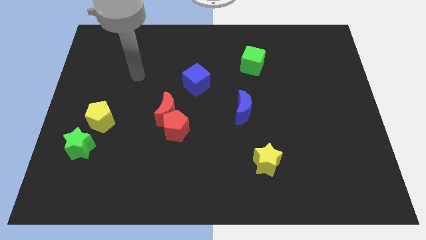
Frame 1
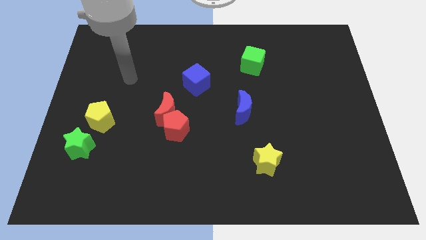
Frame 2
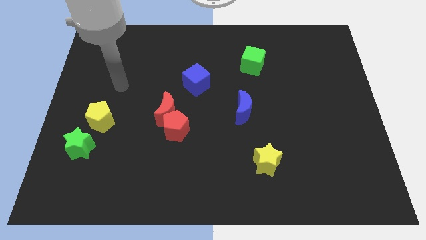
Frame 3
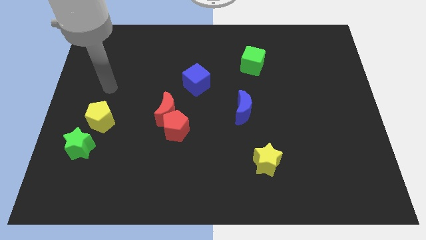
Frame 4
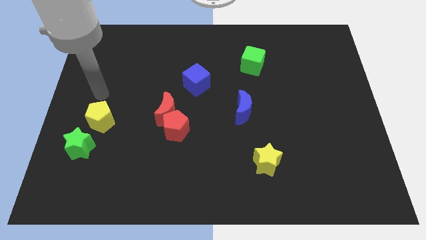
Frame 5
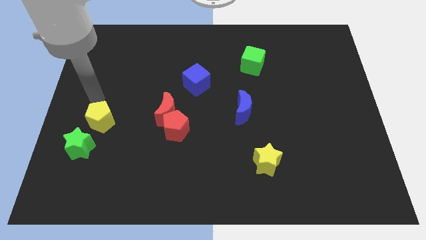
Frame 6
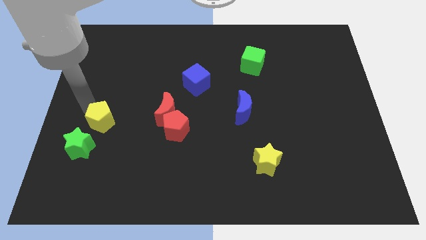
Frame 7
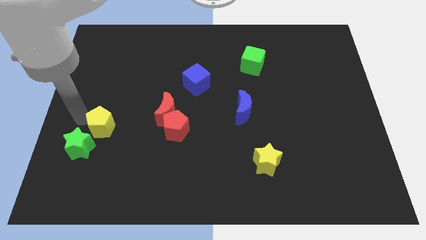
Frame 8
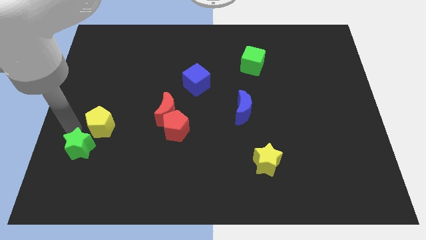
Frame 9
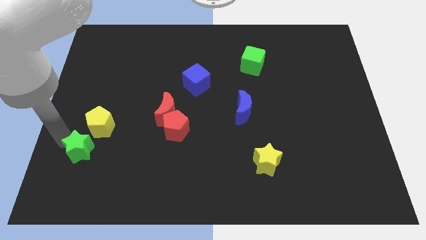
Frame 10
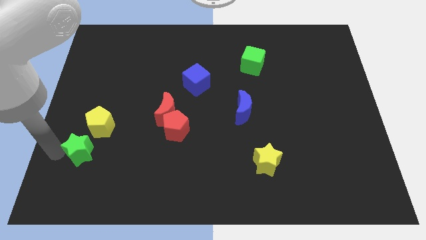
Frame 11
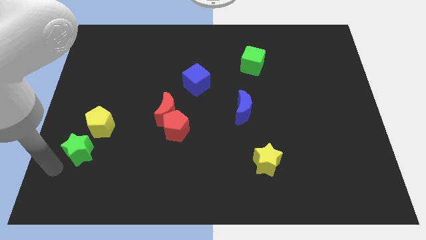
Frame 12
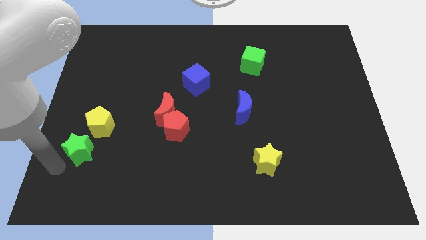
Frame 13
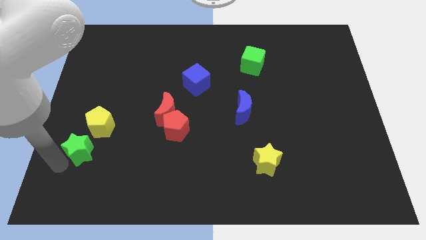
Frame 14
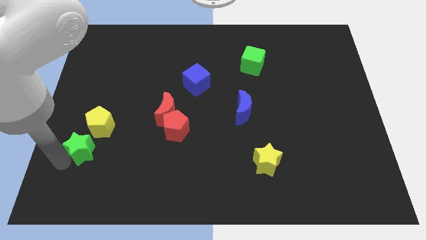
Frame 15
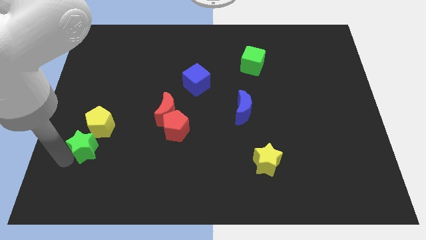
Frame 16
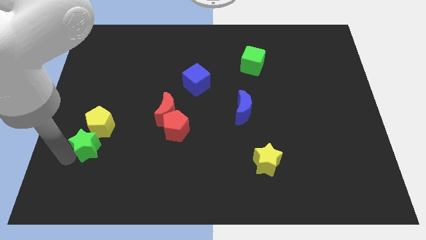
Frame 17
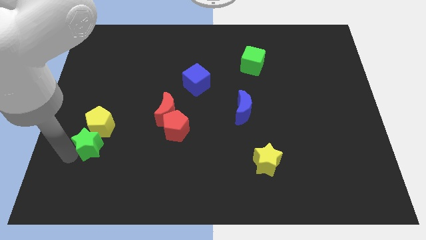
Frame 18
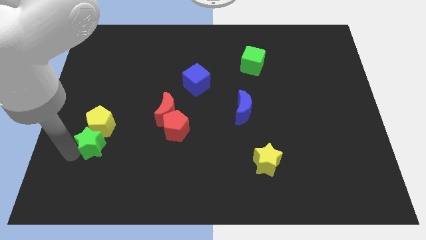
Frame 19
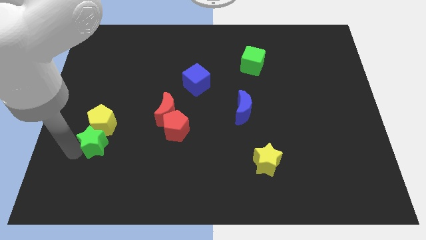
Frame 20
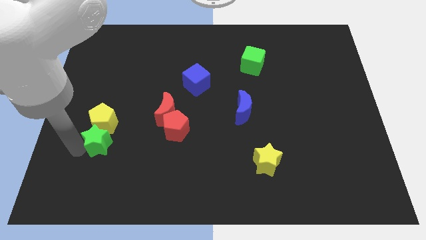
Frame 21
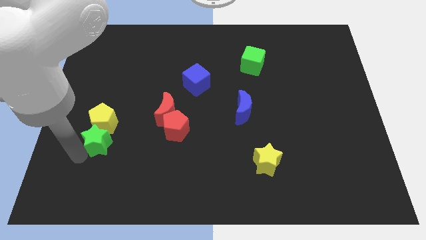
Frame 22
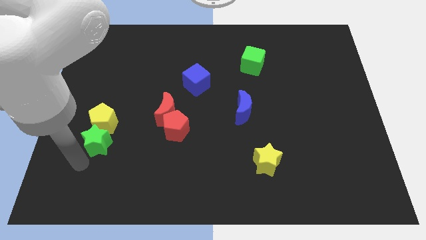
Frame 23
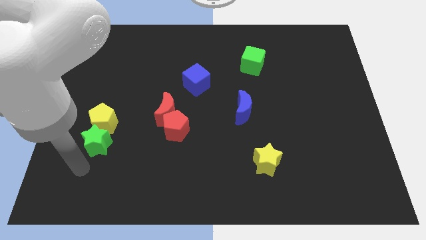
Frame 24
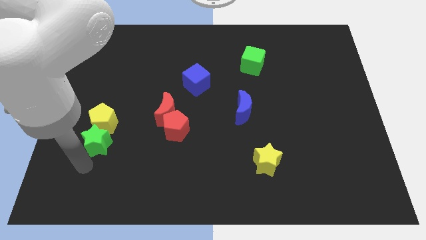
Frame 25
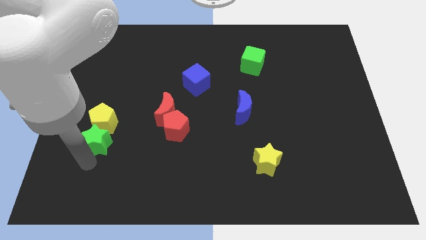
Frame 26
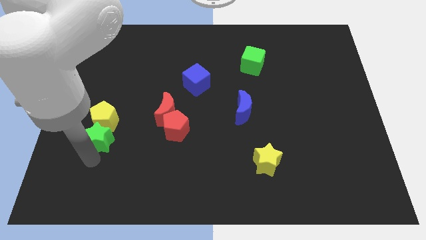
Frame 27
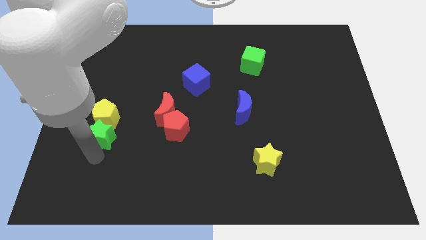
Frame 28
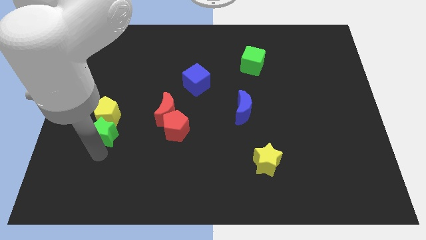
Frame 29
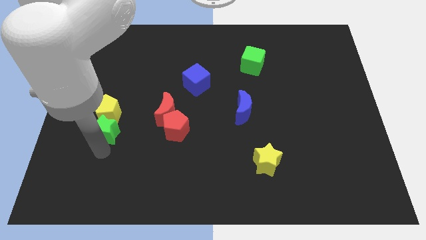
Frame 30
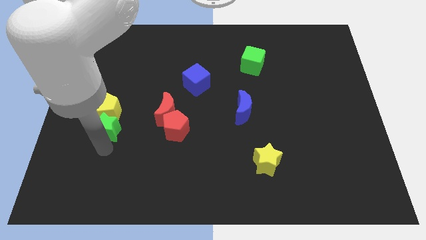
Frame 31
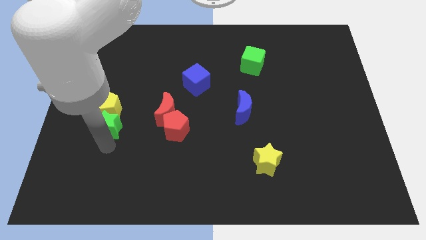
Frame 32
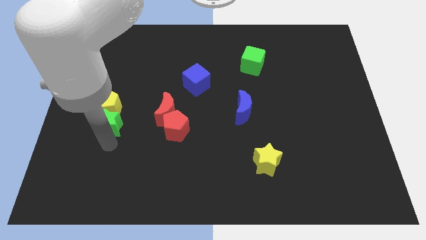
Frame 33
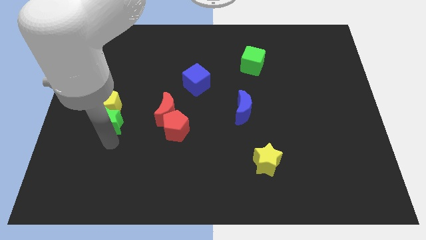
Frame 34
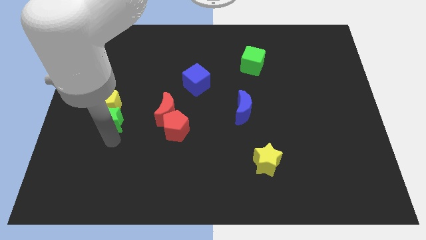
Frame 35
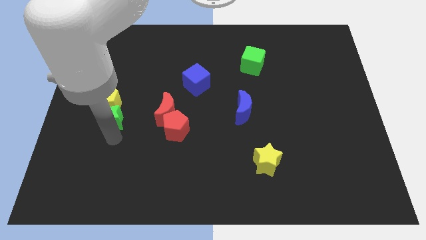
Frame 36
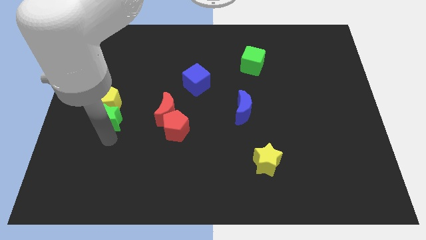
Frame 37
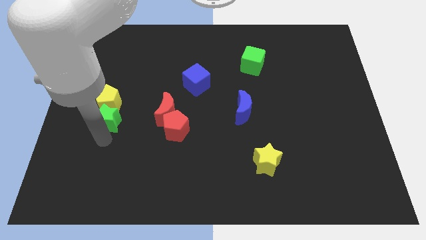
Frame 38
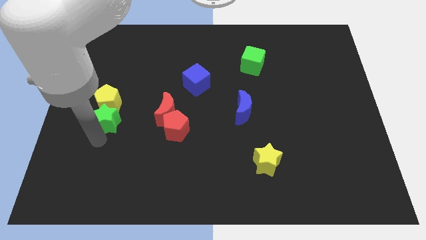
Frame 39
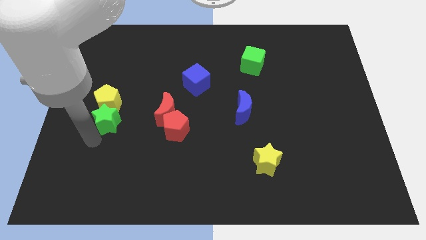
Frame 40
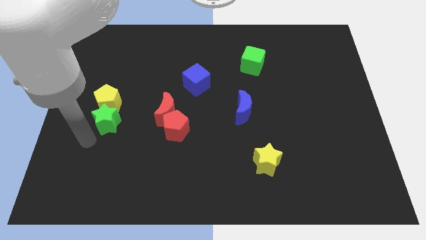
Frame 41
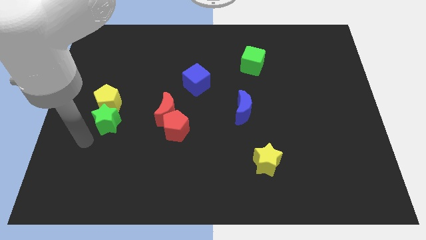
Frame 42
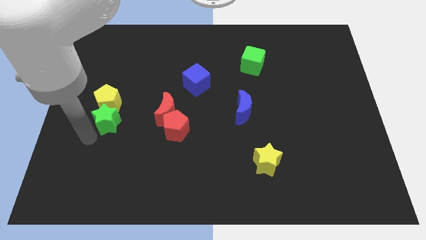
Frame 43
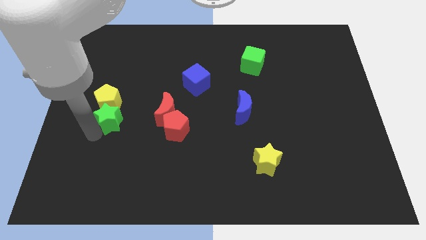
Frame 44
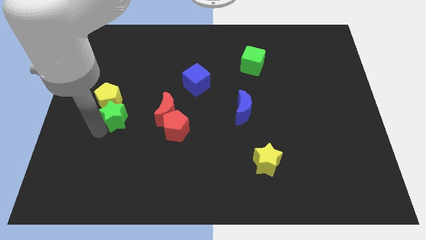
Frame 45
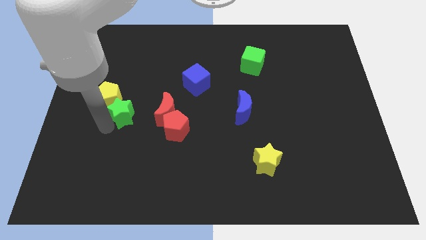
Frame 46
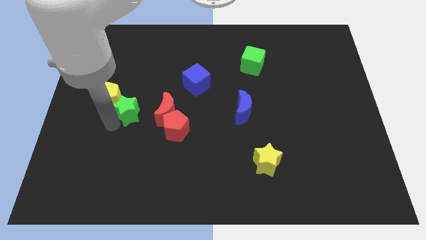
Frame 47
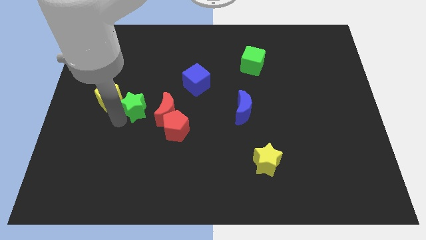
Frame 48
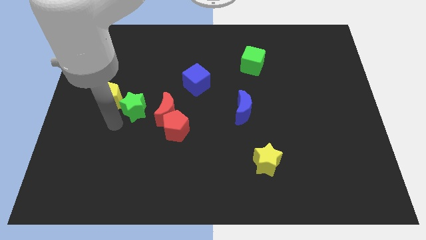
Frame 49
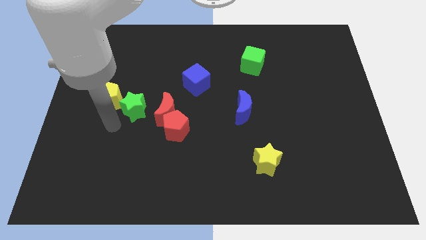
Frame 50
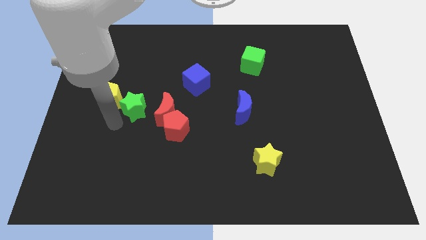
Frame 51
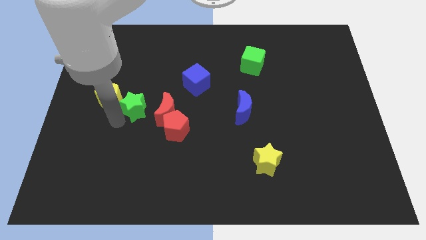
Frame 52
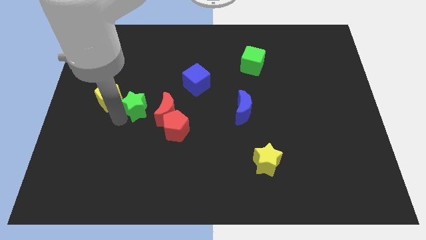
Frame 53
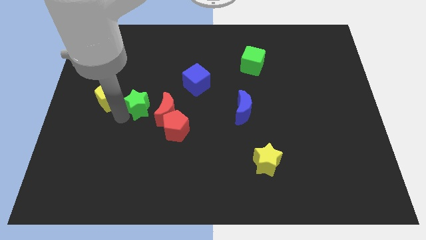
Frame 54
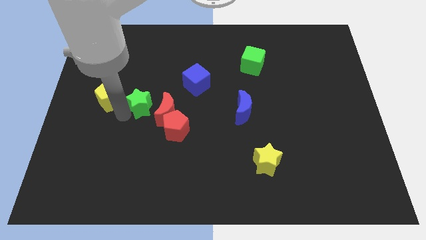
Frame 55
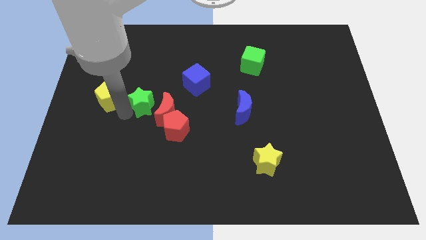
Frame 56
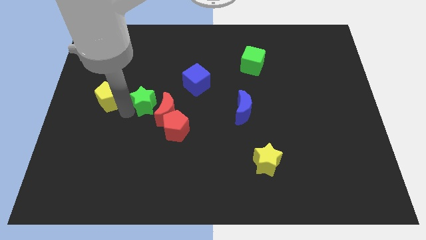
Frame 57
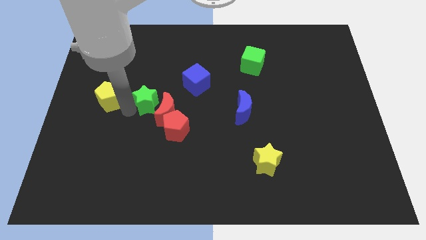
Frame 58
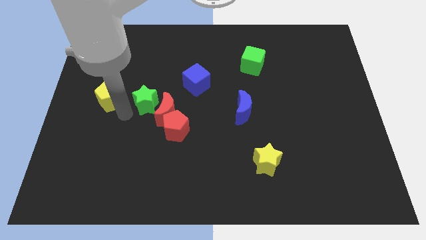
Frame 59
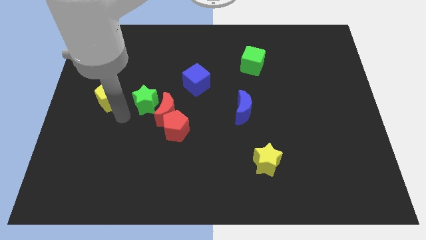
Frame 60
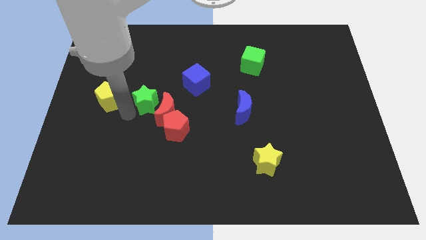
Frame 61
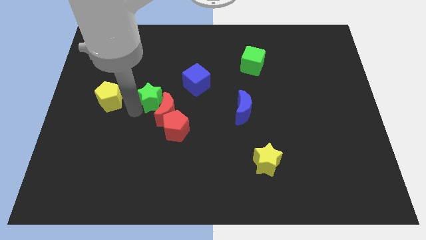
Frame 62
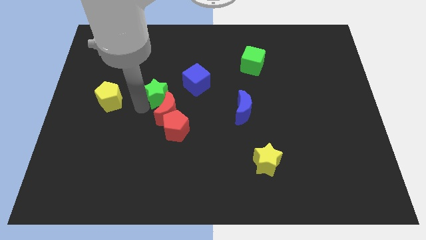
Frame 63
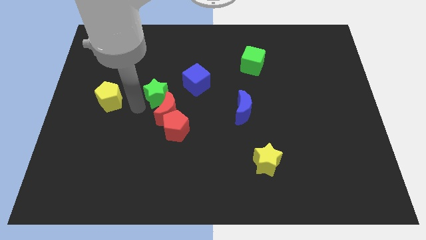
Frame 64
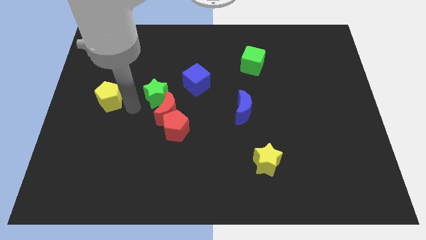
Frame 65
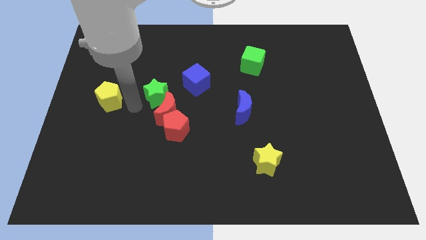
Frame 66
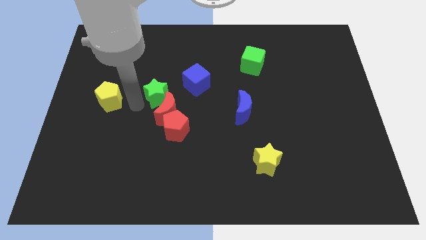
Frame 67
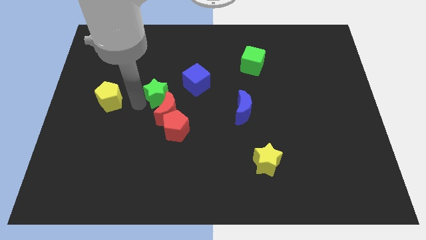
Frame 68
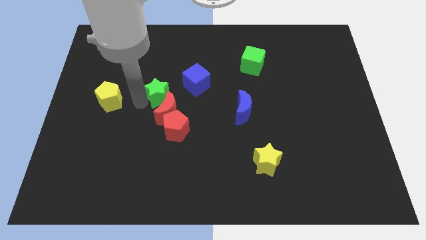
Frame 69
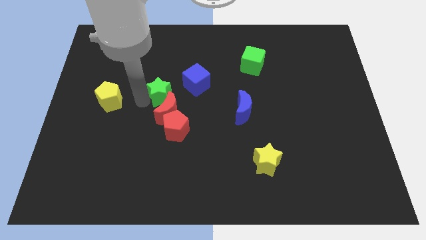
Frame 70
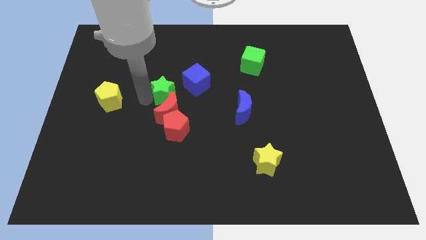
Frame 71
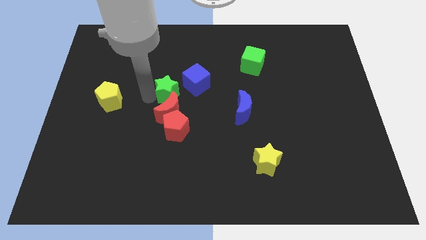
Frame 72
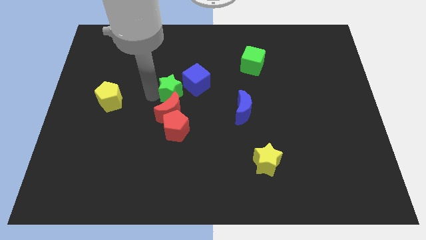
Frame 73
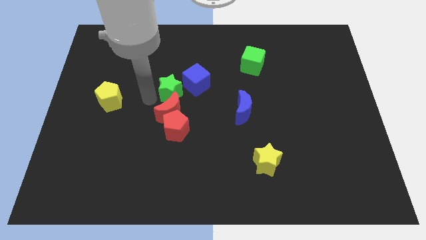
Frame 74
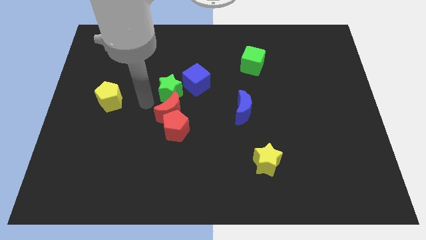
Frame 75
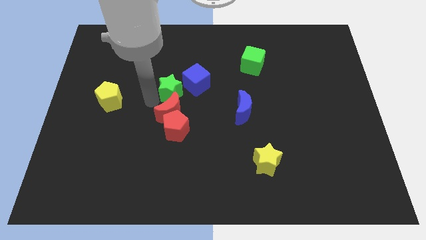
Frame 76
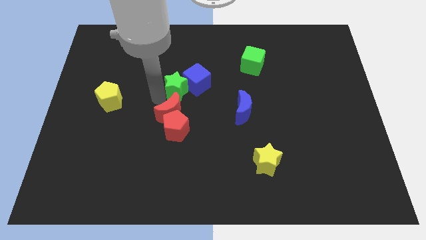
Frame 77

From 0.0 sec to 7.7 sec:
move the green star to the blue cube
